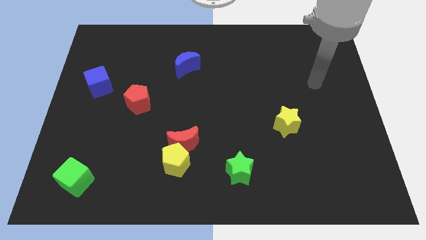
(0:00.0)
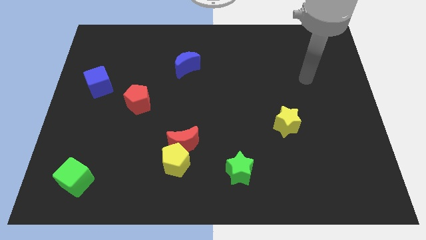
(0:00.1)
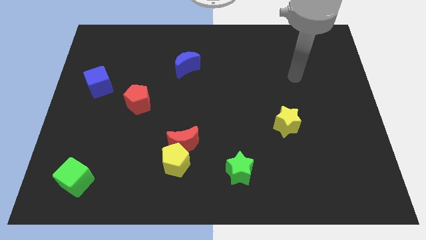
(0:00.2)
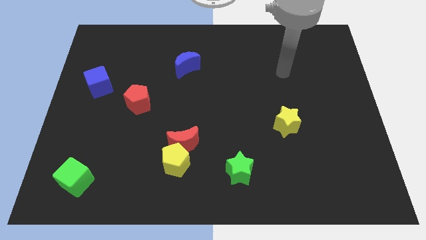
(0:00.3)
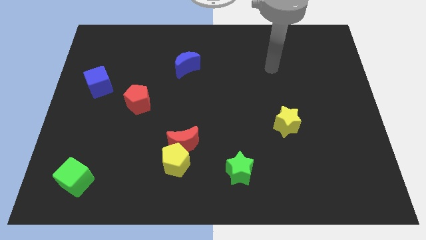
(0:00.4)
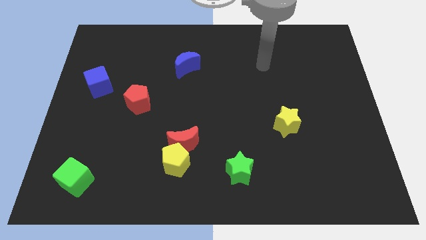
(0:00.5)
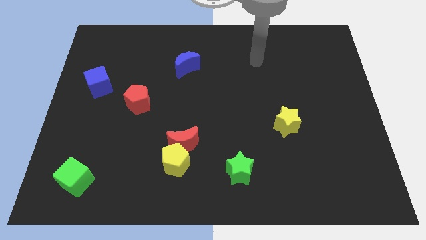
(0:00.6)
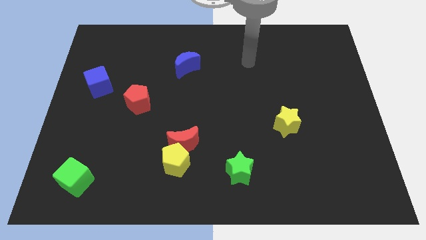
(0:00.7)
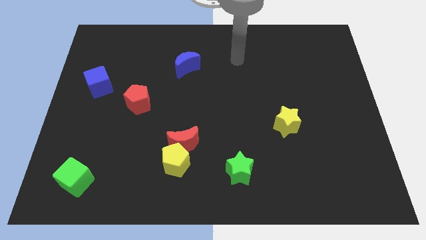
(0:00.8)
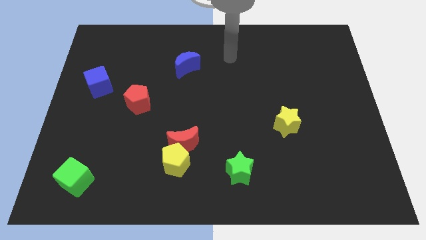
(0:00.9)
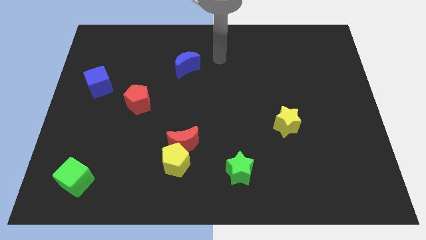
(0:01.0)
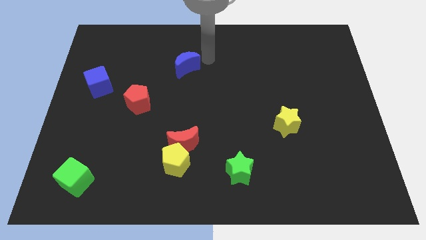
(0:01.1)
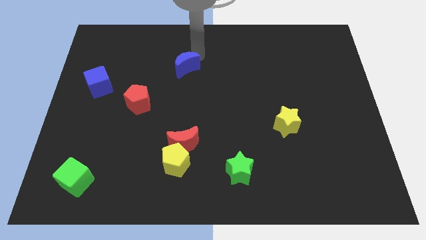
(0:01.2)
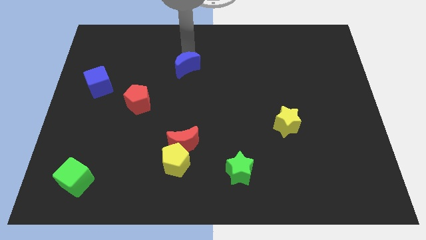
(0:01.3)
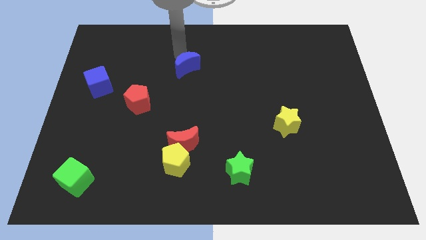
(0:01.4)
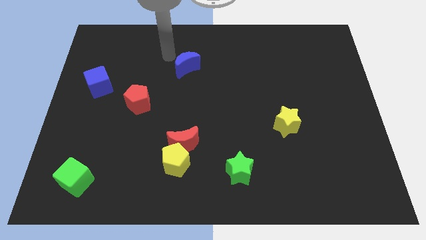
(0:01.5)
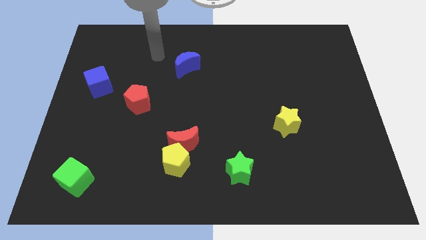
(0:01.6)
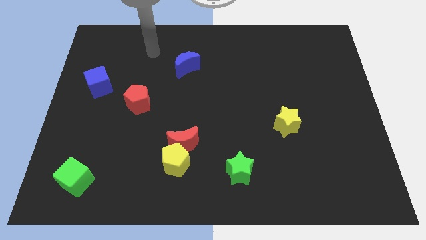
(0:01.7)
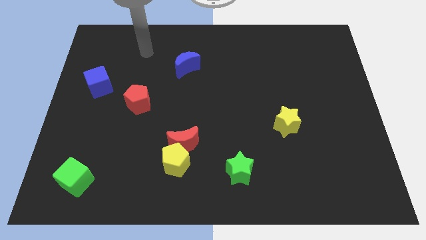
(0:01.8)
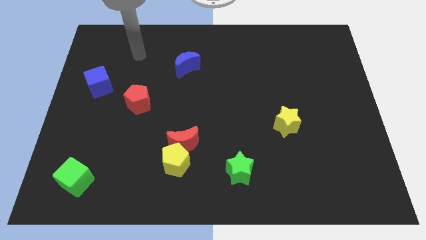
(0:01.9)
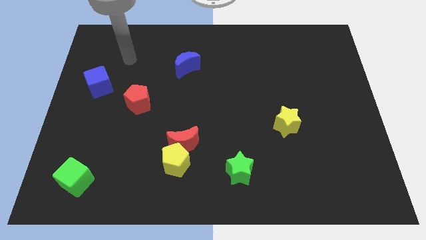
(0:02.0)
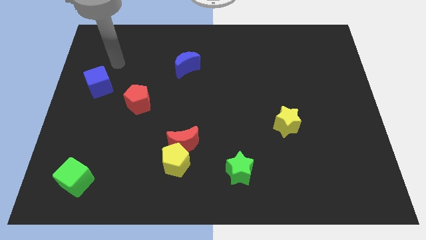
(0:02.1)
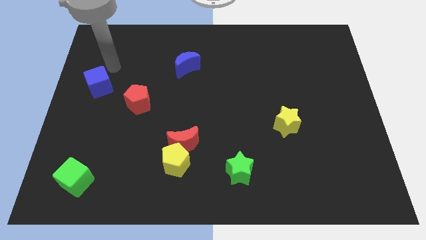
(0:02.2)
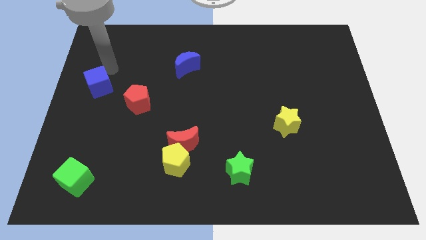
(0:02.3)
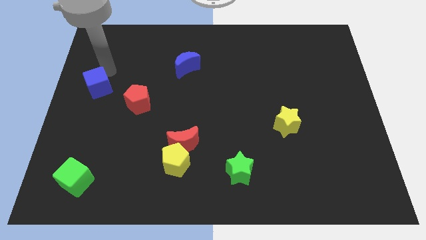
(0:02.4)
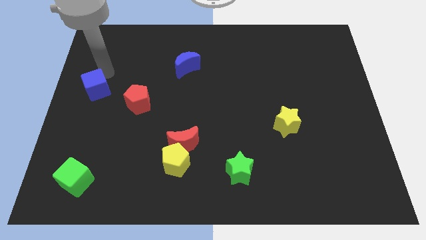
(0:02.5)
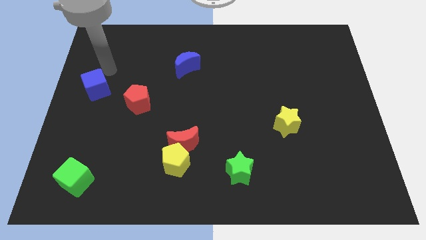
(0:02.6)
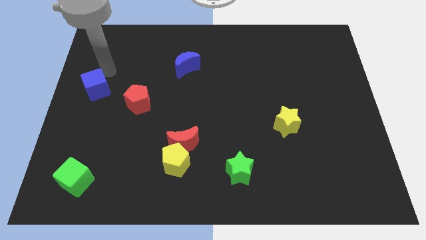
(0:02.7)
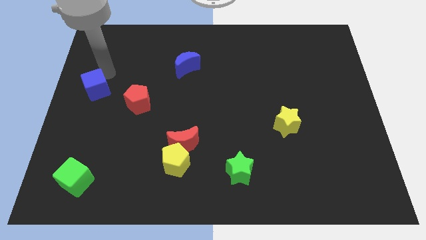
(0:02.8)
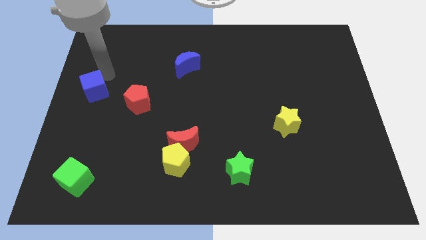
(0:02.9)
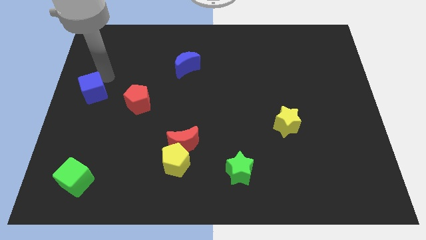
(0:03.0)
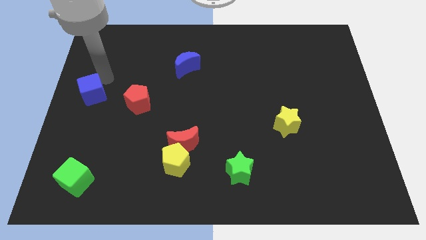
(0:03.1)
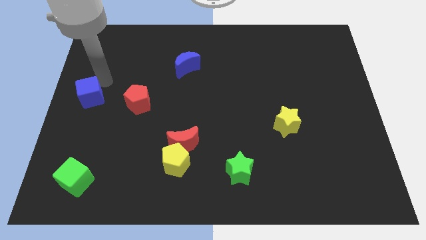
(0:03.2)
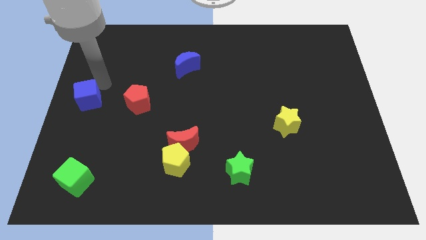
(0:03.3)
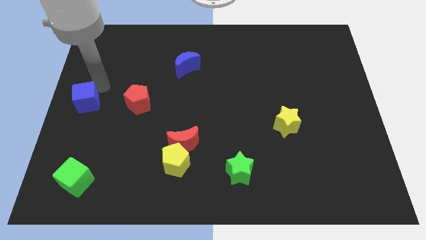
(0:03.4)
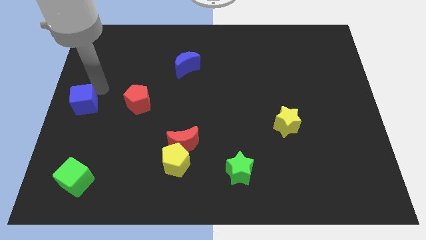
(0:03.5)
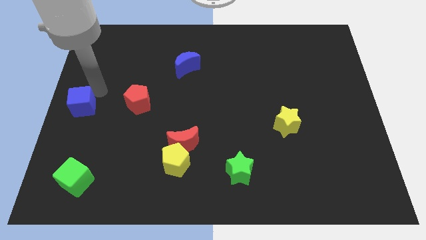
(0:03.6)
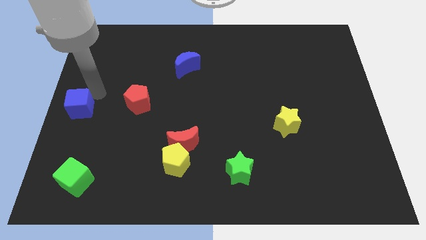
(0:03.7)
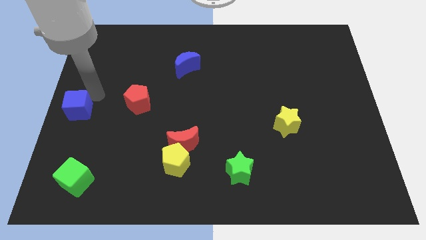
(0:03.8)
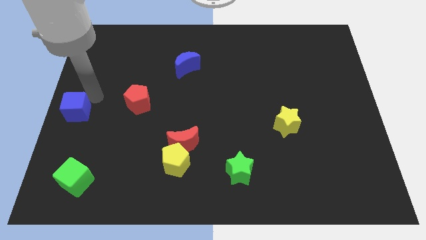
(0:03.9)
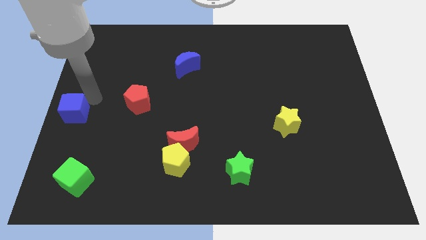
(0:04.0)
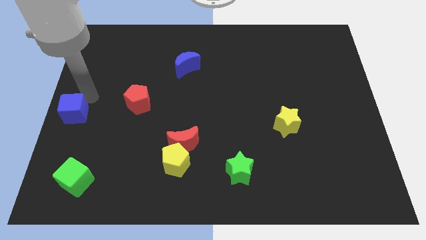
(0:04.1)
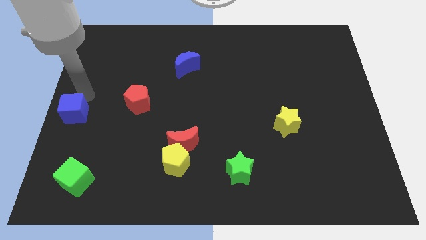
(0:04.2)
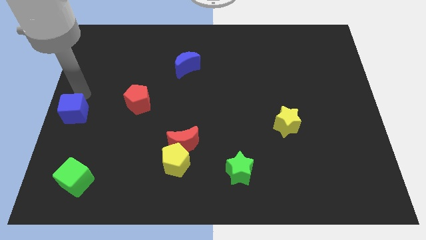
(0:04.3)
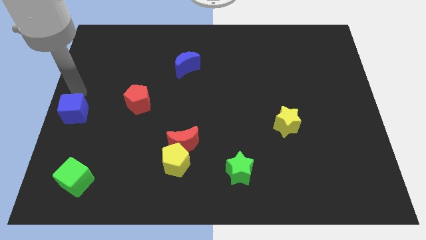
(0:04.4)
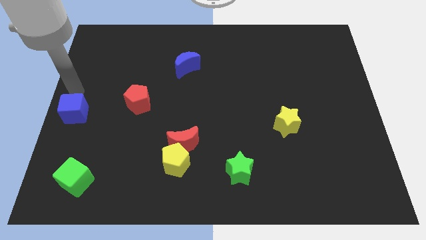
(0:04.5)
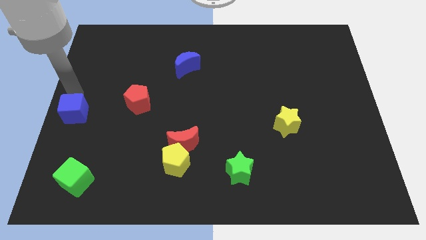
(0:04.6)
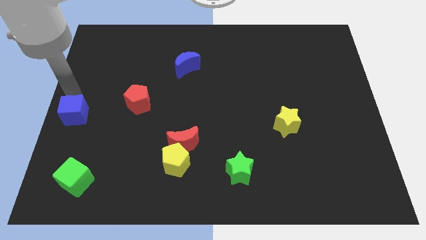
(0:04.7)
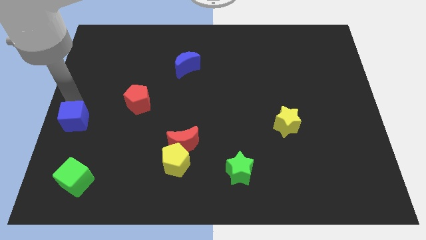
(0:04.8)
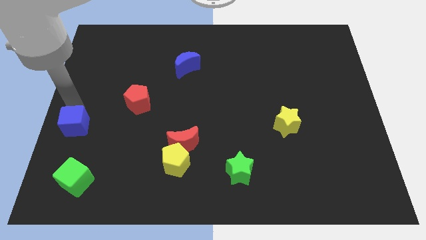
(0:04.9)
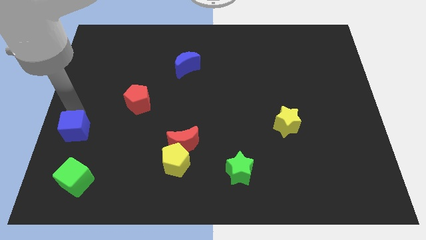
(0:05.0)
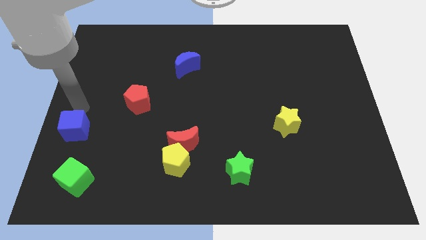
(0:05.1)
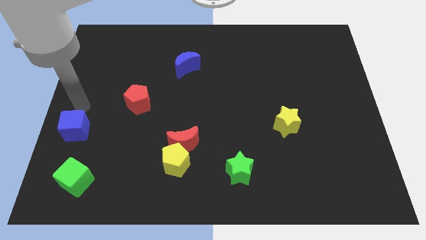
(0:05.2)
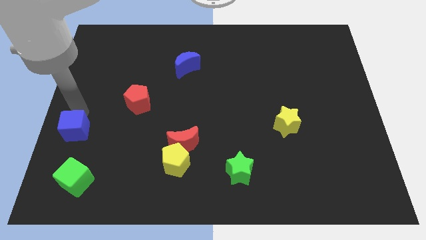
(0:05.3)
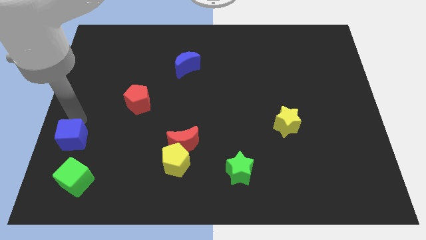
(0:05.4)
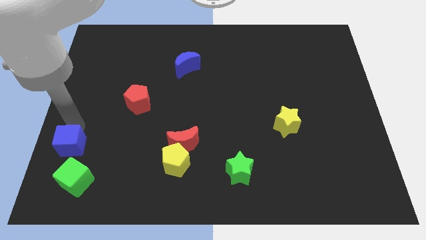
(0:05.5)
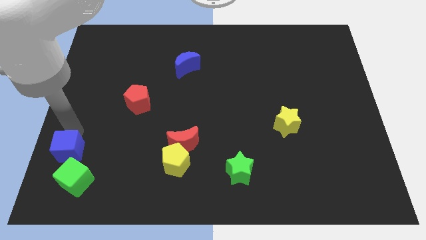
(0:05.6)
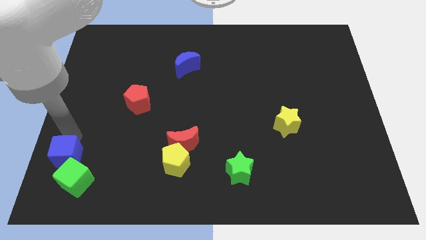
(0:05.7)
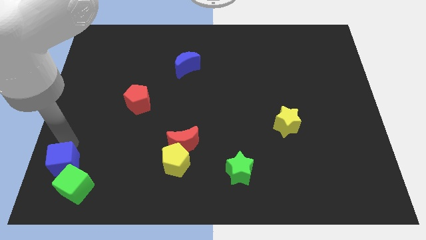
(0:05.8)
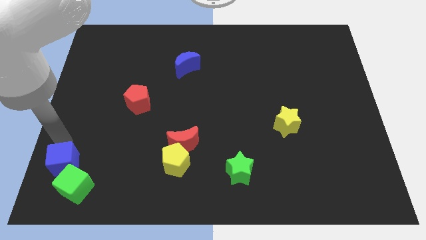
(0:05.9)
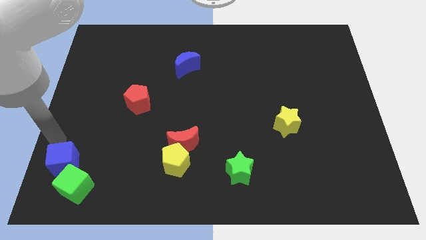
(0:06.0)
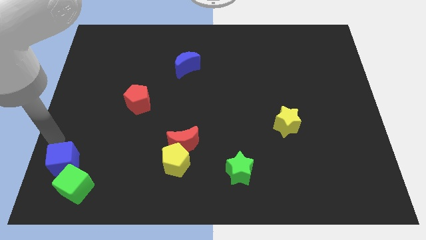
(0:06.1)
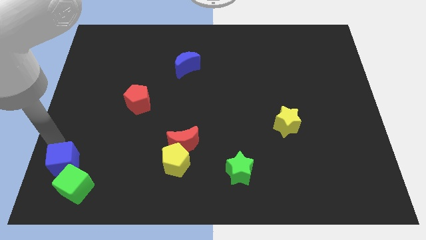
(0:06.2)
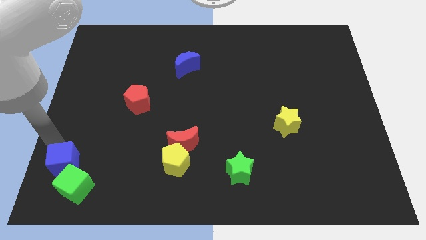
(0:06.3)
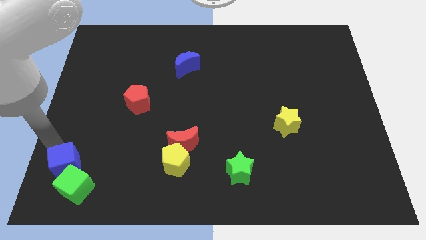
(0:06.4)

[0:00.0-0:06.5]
put the blue cube to the green cube

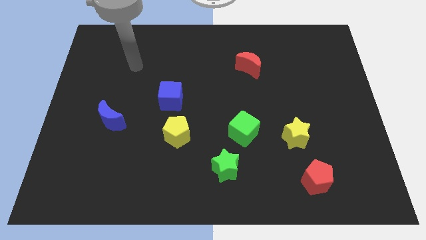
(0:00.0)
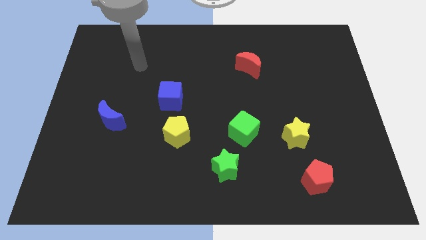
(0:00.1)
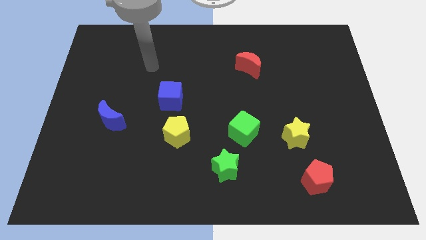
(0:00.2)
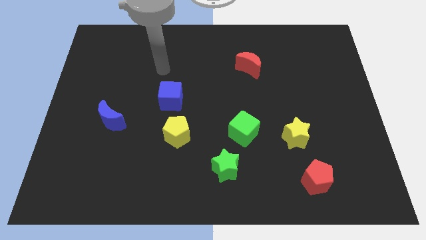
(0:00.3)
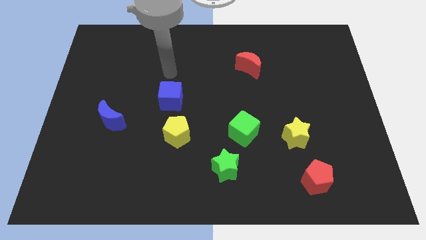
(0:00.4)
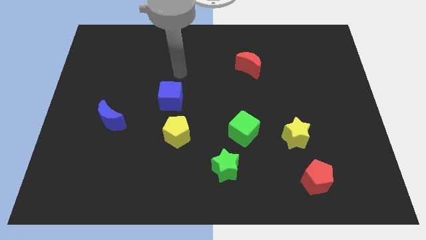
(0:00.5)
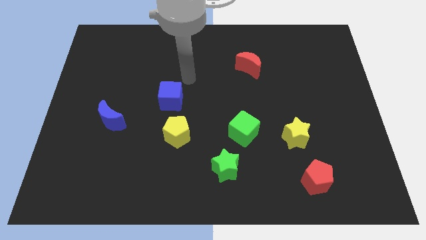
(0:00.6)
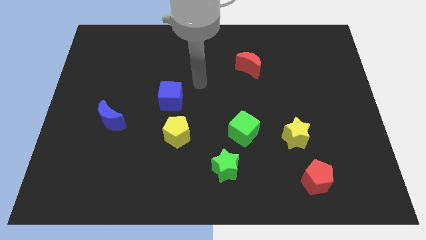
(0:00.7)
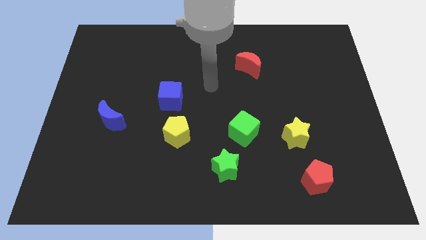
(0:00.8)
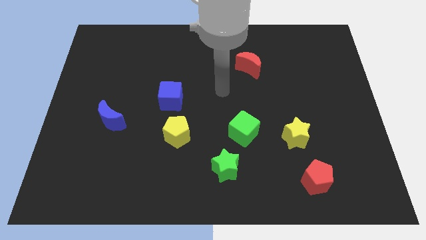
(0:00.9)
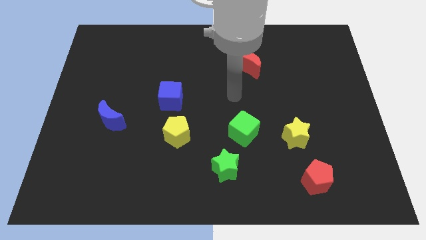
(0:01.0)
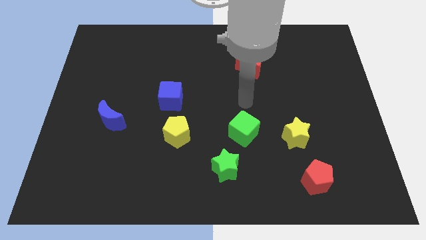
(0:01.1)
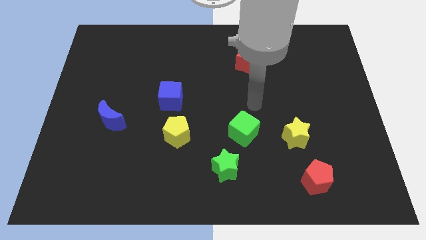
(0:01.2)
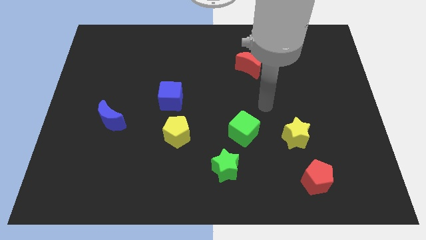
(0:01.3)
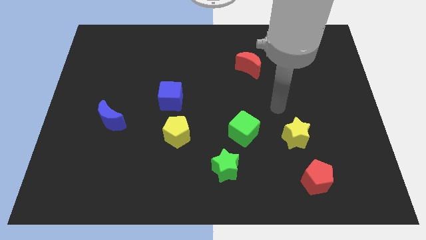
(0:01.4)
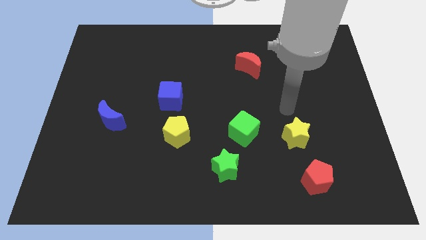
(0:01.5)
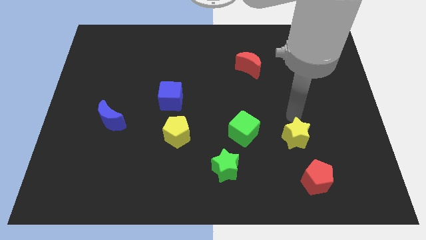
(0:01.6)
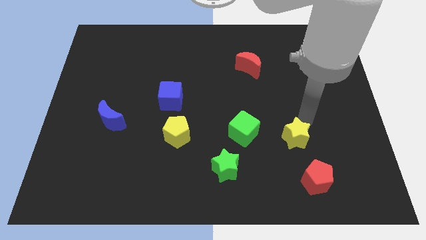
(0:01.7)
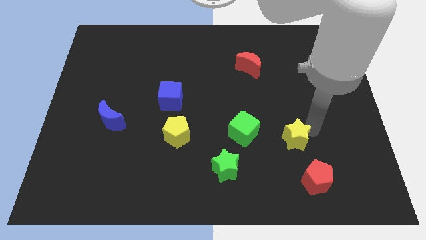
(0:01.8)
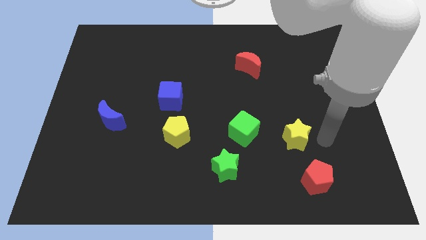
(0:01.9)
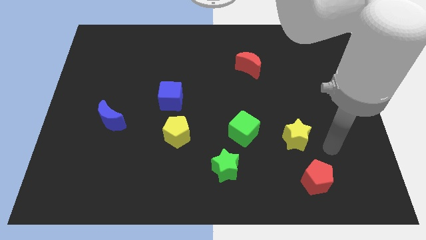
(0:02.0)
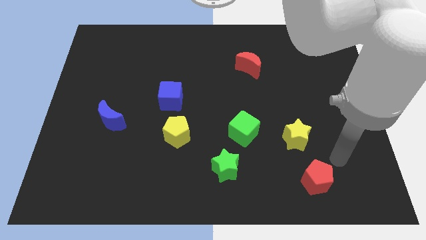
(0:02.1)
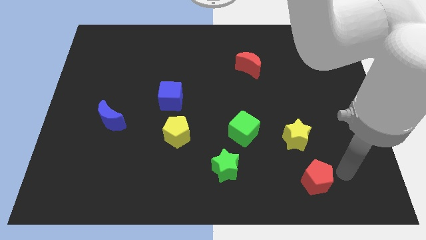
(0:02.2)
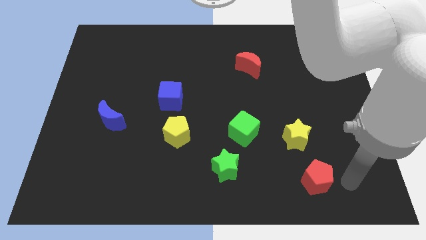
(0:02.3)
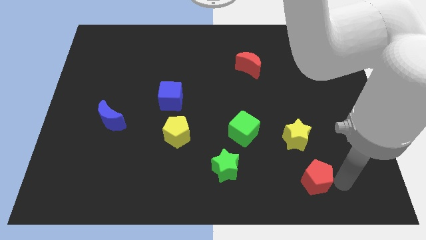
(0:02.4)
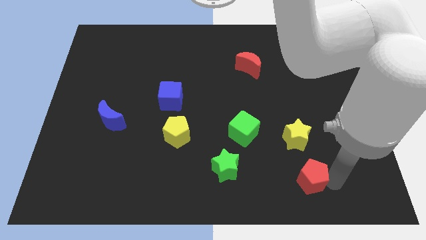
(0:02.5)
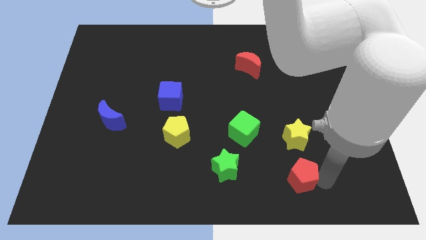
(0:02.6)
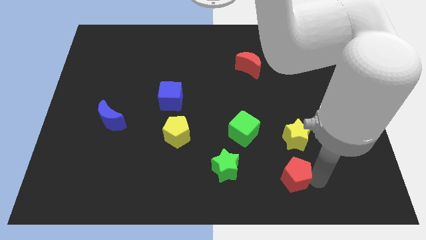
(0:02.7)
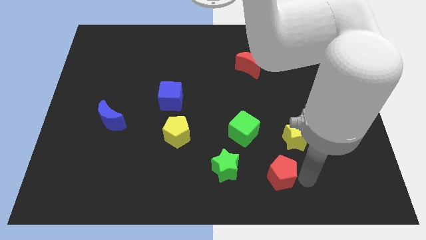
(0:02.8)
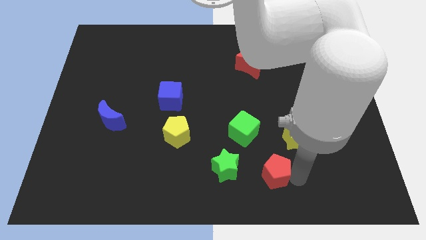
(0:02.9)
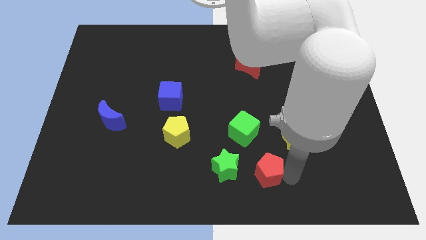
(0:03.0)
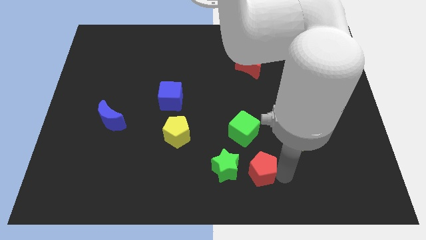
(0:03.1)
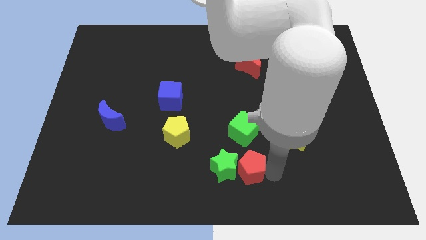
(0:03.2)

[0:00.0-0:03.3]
push the red pentagon to the green star
